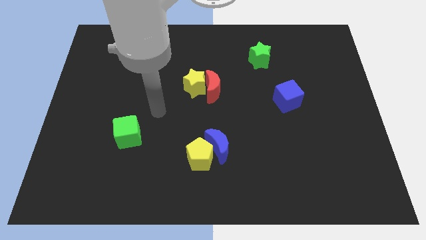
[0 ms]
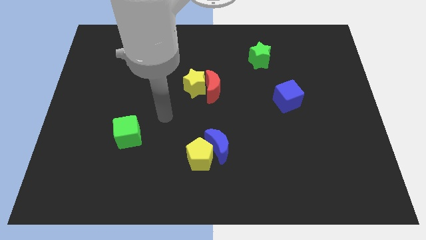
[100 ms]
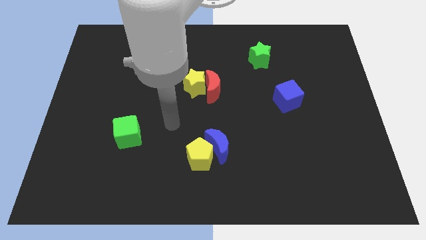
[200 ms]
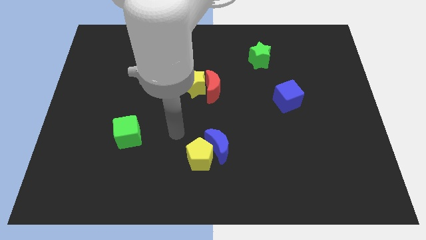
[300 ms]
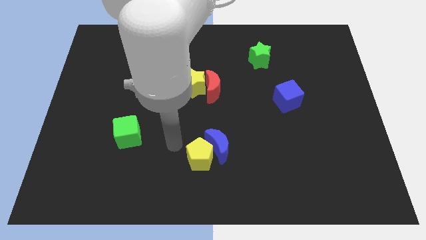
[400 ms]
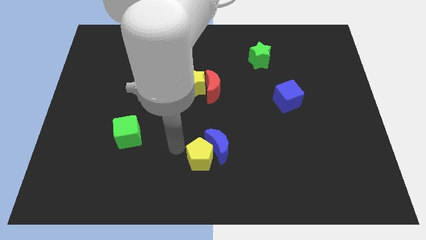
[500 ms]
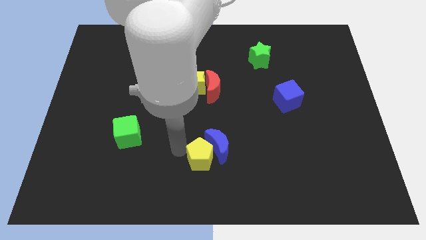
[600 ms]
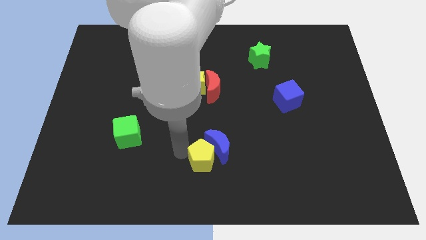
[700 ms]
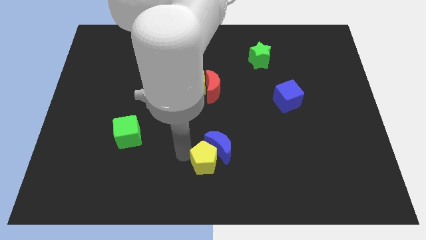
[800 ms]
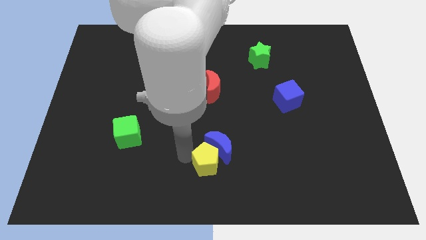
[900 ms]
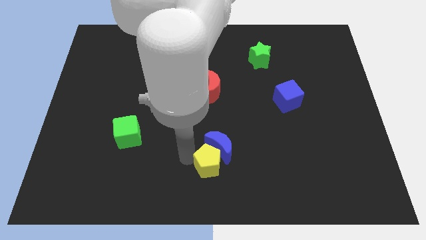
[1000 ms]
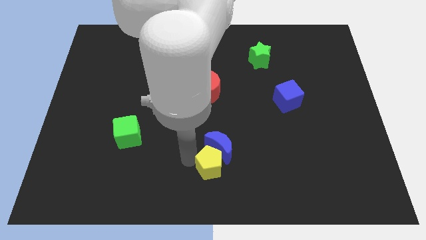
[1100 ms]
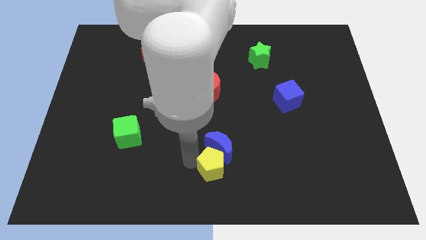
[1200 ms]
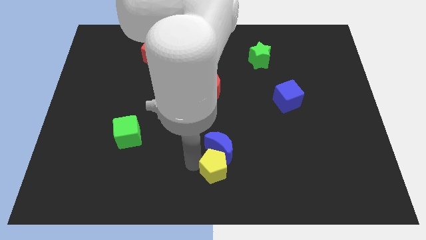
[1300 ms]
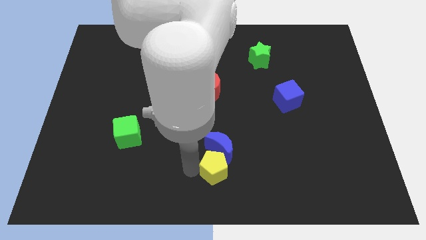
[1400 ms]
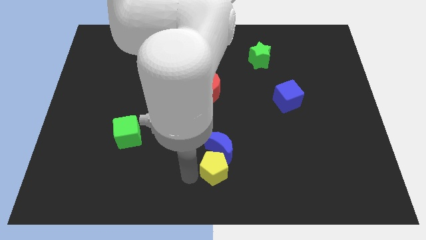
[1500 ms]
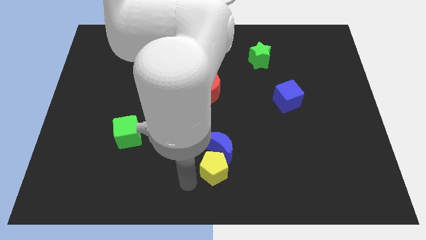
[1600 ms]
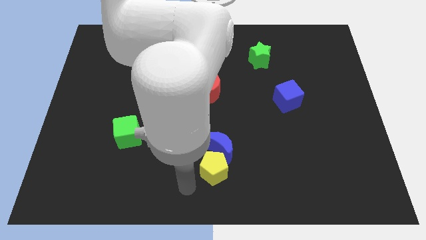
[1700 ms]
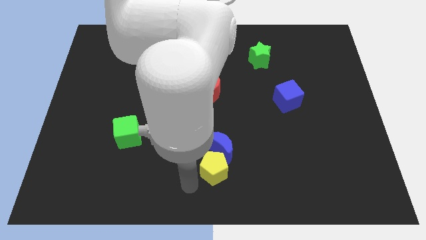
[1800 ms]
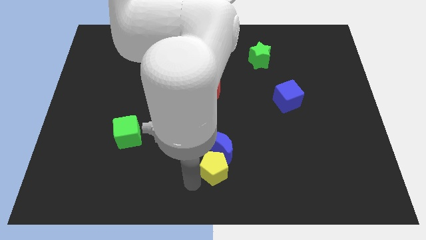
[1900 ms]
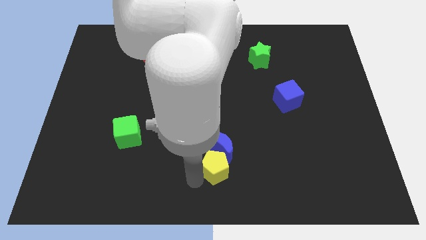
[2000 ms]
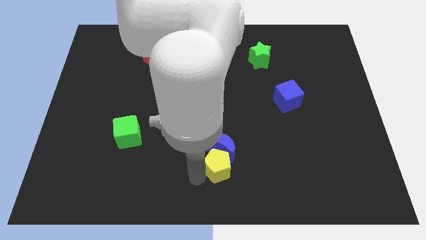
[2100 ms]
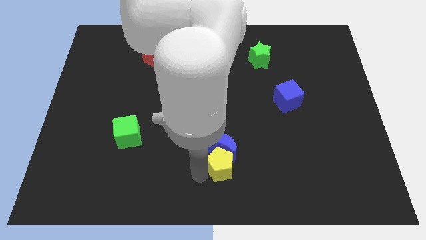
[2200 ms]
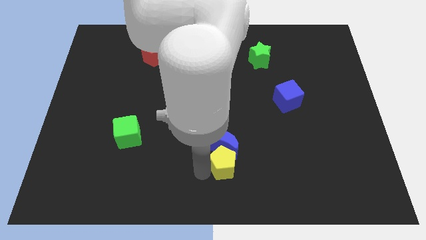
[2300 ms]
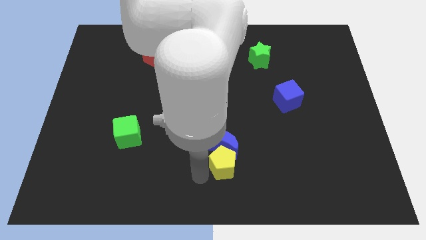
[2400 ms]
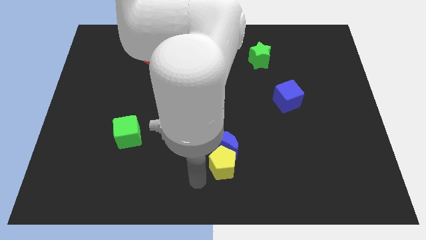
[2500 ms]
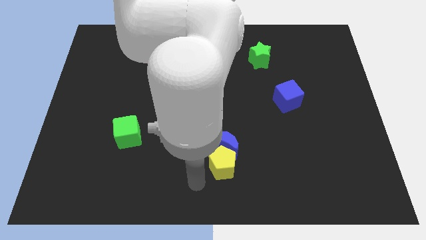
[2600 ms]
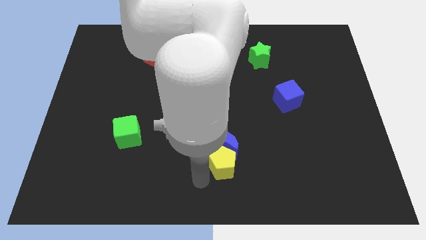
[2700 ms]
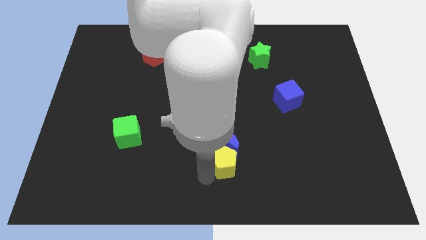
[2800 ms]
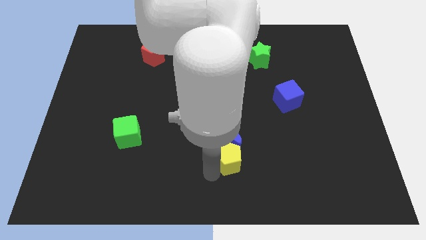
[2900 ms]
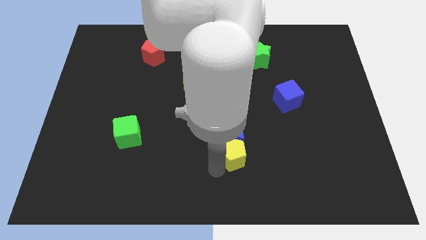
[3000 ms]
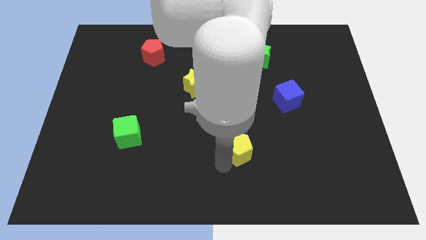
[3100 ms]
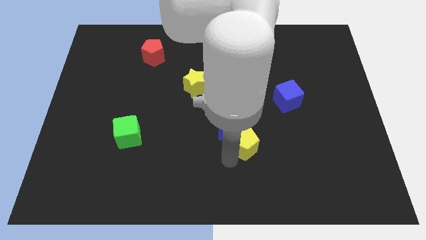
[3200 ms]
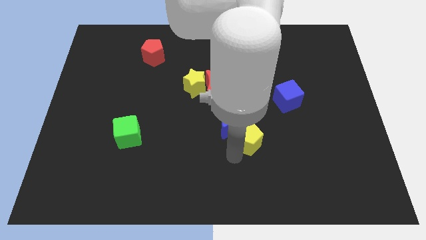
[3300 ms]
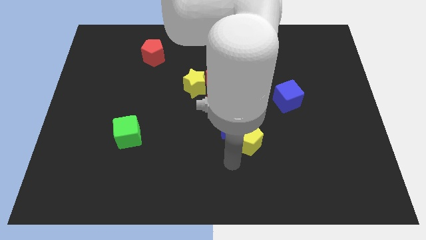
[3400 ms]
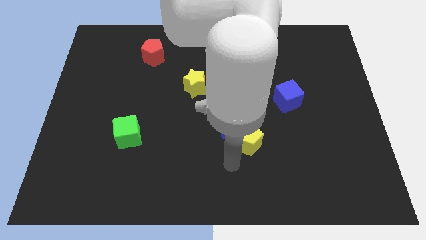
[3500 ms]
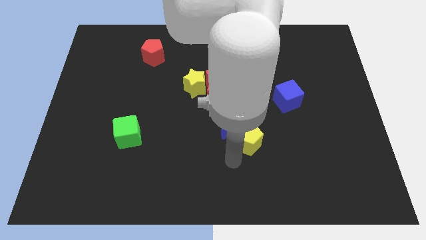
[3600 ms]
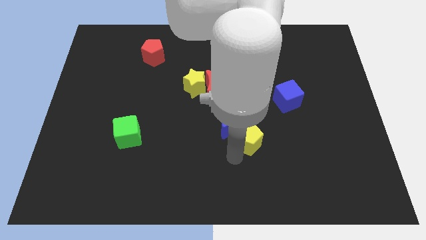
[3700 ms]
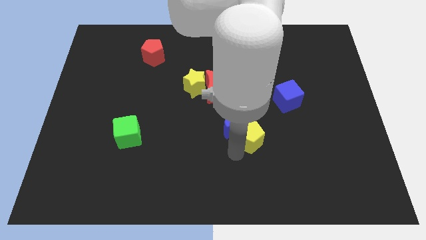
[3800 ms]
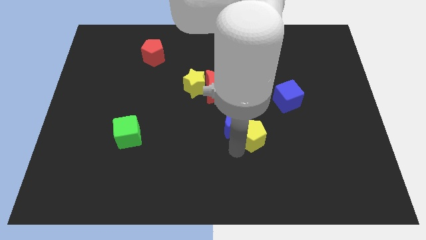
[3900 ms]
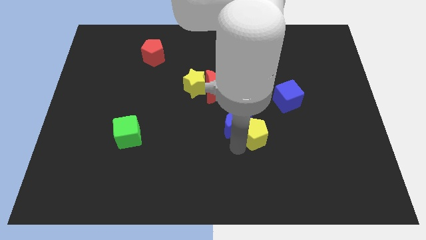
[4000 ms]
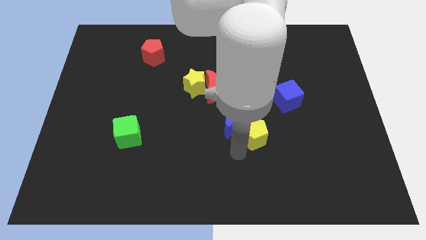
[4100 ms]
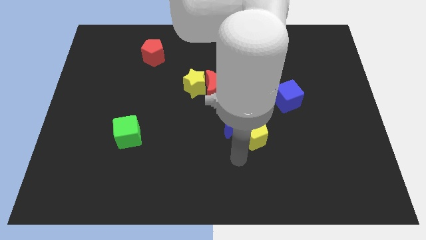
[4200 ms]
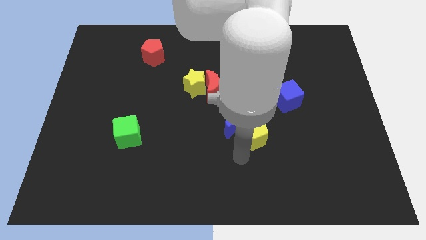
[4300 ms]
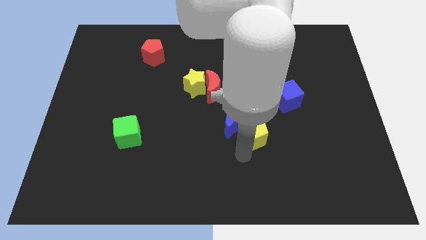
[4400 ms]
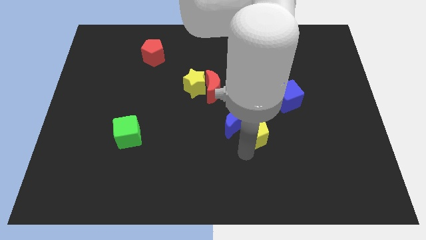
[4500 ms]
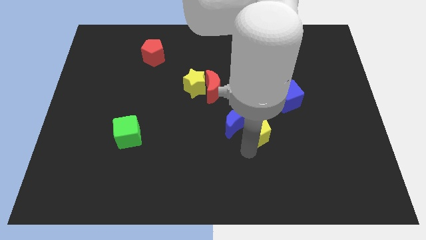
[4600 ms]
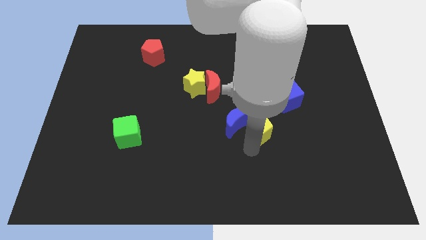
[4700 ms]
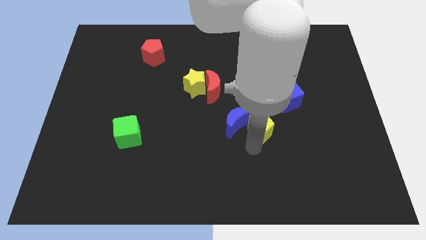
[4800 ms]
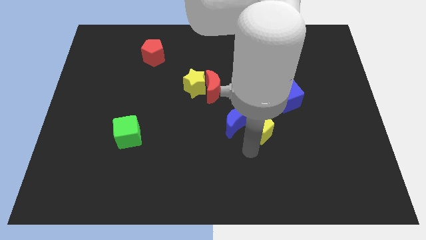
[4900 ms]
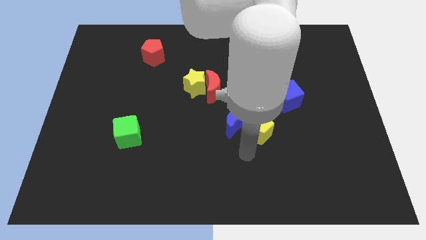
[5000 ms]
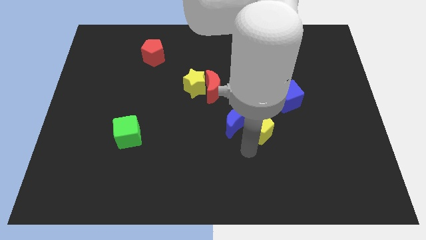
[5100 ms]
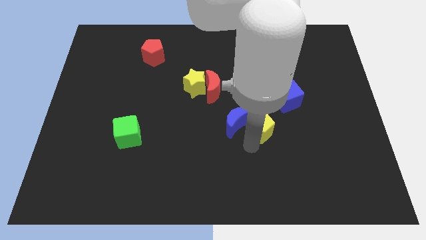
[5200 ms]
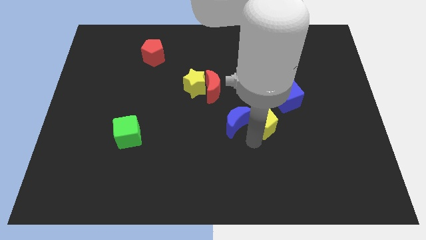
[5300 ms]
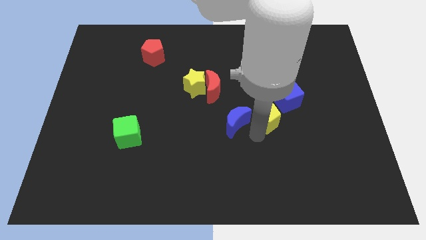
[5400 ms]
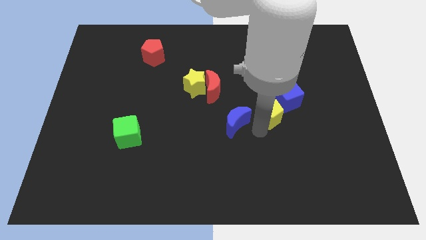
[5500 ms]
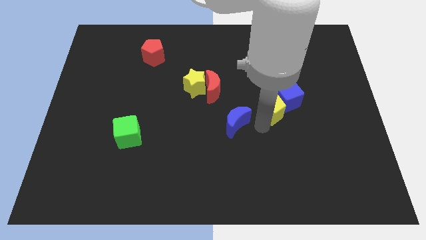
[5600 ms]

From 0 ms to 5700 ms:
put the yellow pentagon close to the blue cube

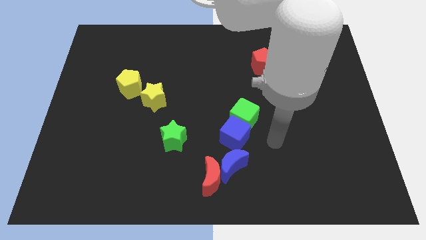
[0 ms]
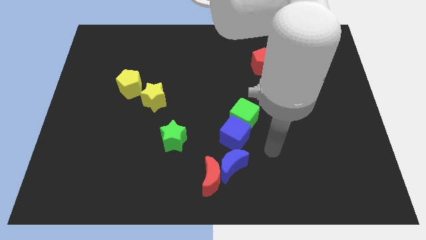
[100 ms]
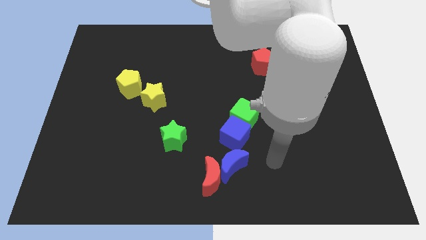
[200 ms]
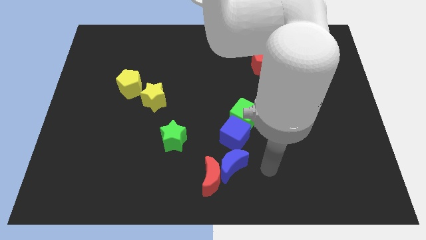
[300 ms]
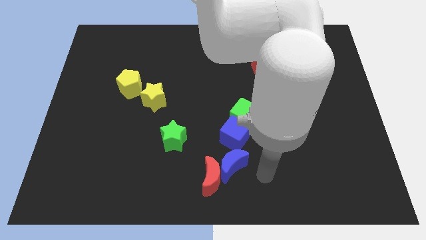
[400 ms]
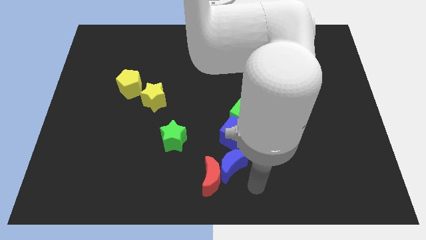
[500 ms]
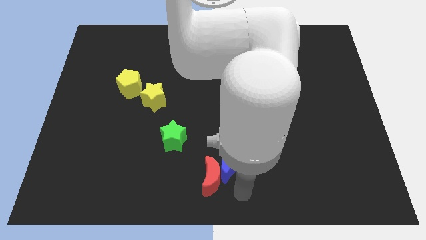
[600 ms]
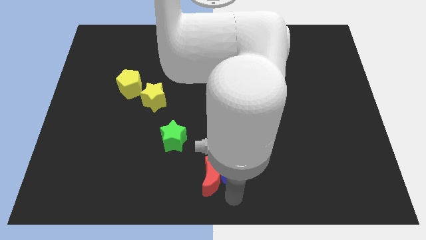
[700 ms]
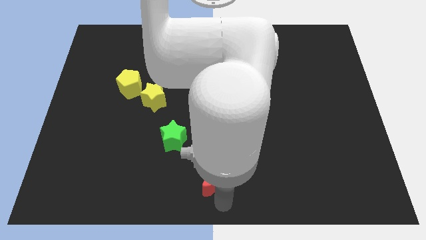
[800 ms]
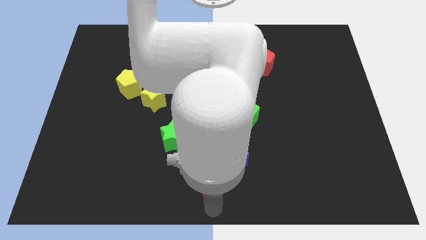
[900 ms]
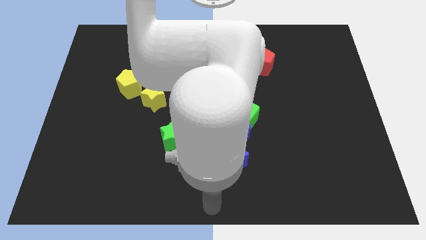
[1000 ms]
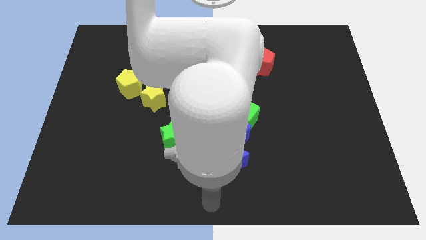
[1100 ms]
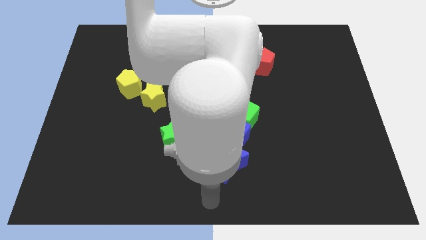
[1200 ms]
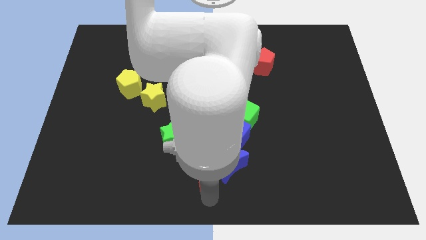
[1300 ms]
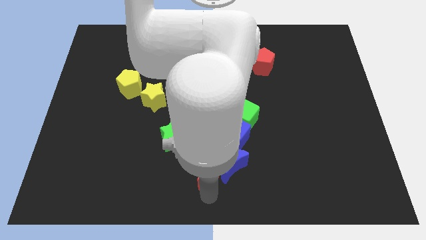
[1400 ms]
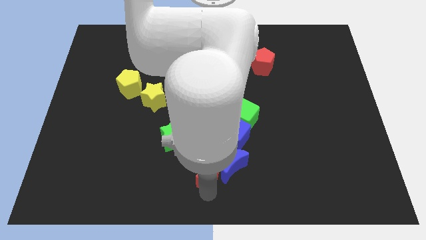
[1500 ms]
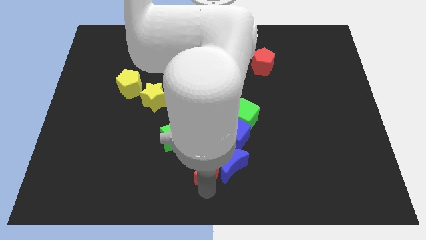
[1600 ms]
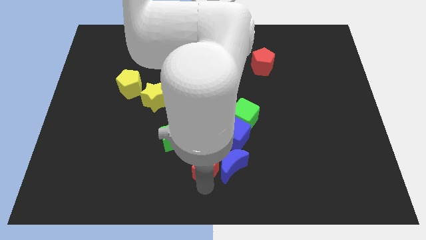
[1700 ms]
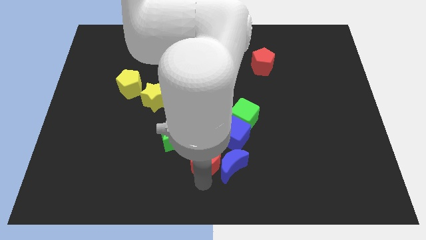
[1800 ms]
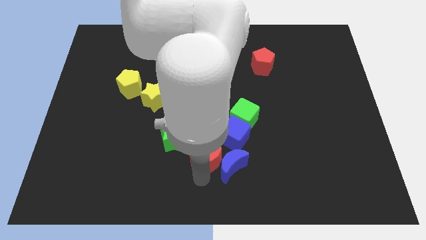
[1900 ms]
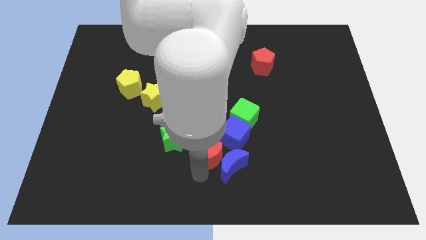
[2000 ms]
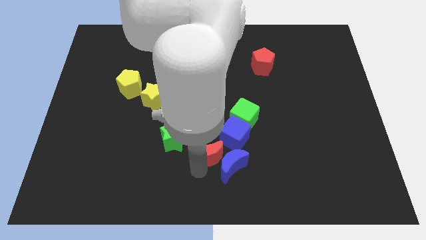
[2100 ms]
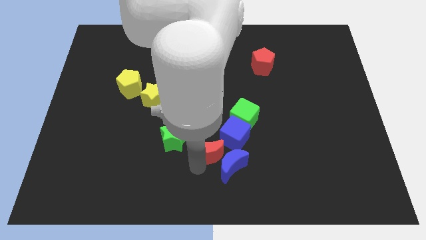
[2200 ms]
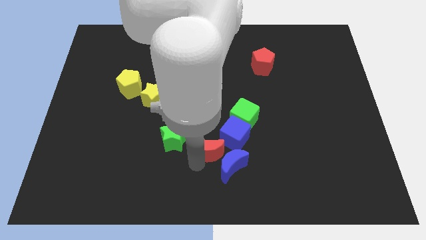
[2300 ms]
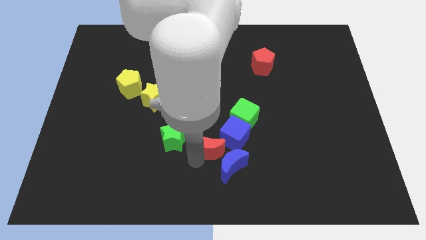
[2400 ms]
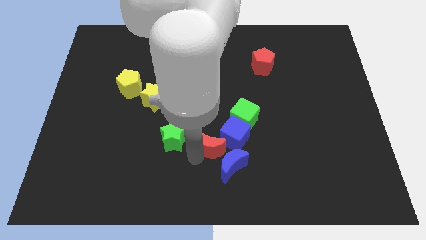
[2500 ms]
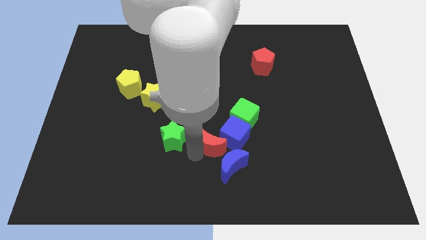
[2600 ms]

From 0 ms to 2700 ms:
move the red moon to the blue cube

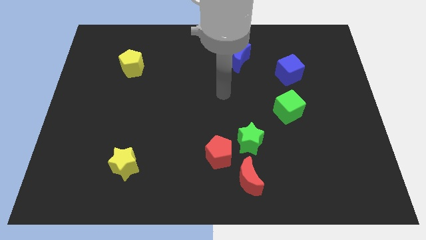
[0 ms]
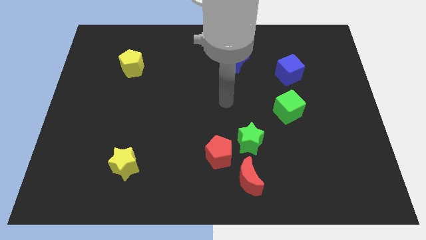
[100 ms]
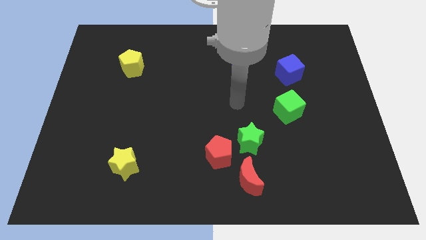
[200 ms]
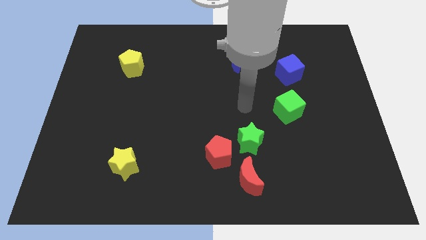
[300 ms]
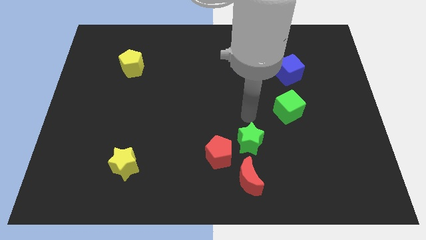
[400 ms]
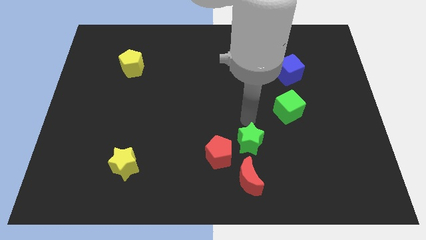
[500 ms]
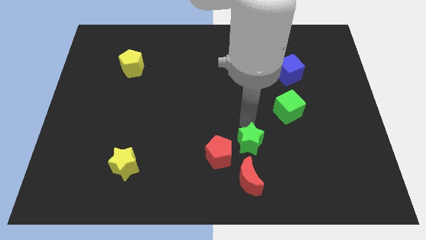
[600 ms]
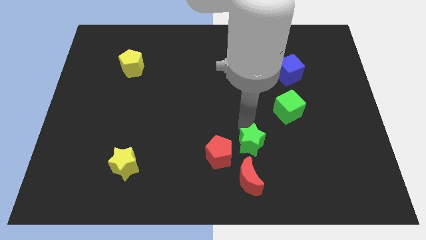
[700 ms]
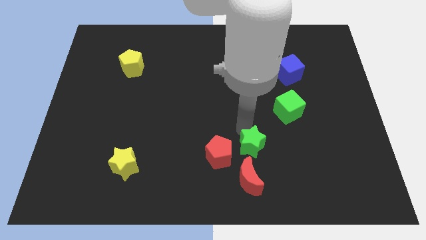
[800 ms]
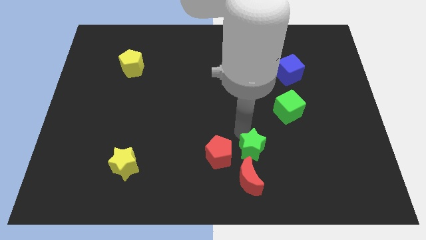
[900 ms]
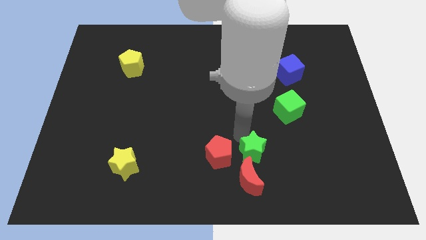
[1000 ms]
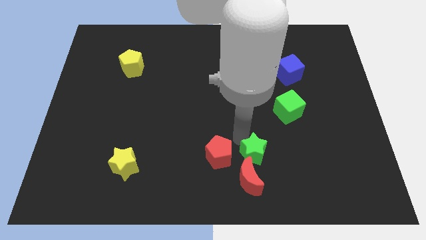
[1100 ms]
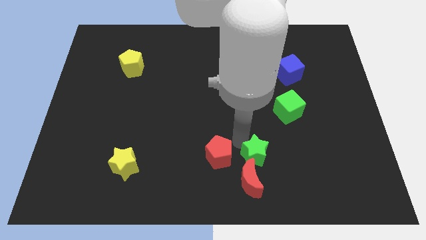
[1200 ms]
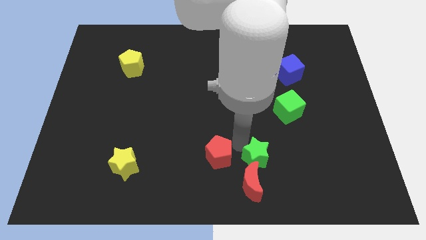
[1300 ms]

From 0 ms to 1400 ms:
slide the green star next to the red moon
